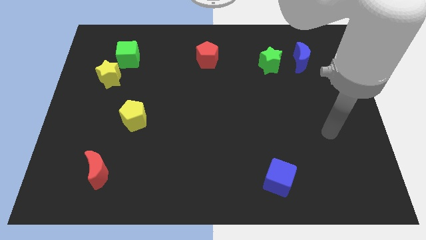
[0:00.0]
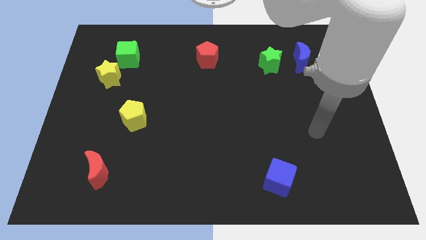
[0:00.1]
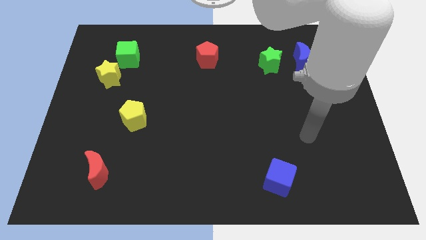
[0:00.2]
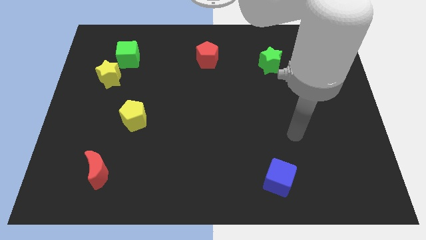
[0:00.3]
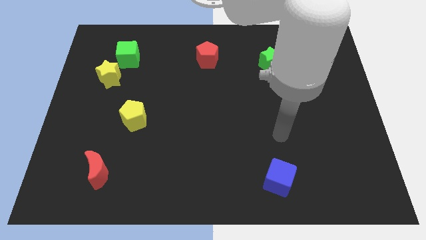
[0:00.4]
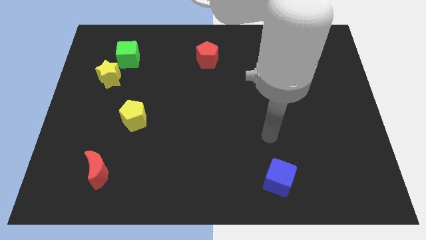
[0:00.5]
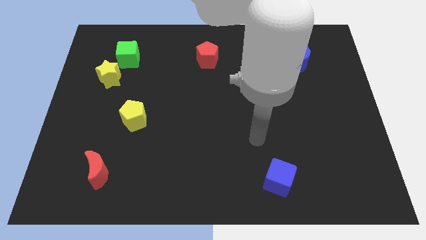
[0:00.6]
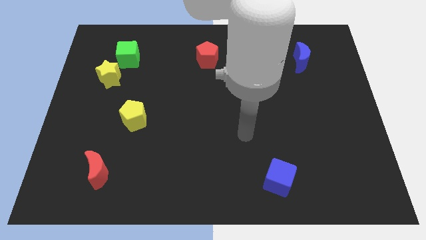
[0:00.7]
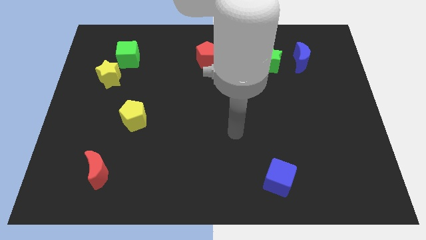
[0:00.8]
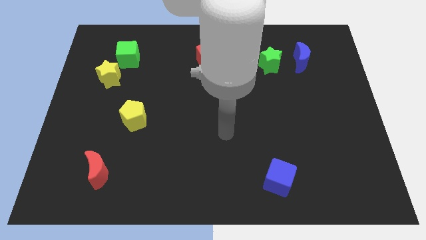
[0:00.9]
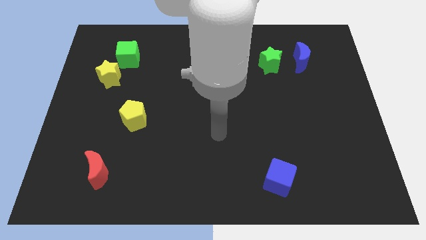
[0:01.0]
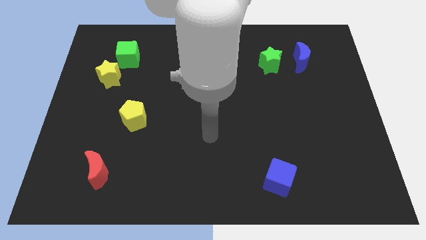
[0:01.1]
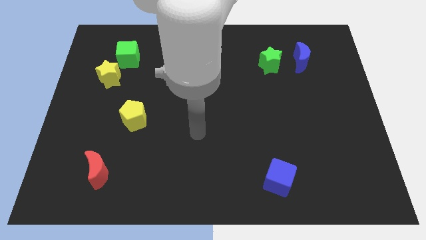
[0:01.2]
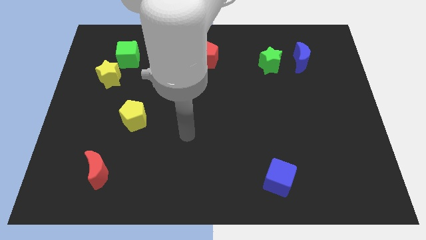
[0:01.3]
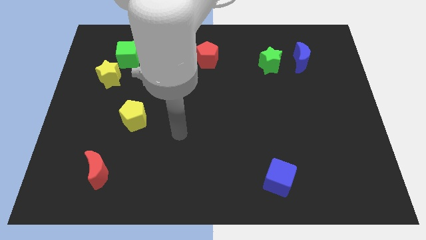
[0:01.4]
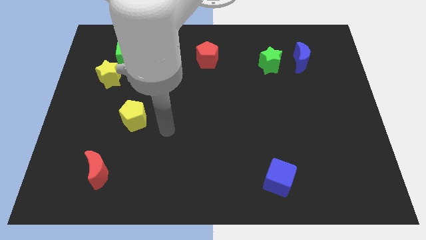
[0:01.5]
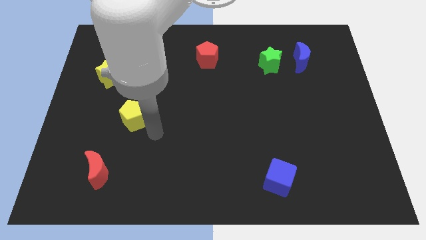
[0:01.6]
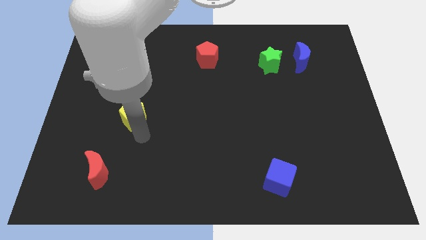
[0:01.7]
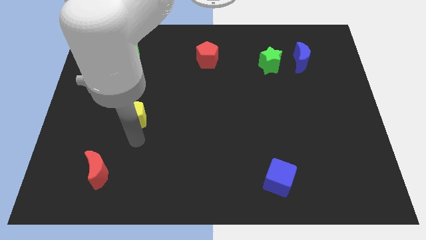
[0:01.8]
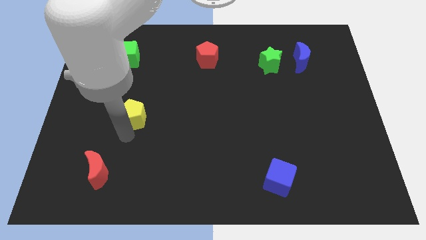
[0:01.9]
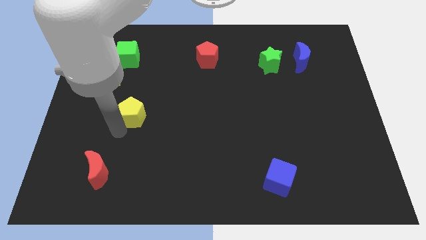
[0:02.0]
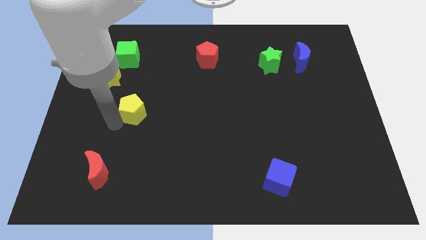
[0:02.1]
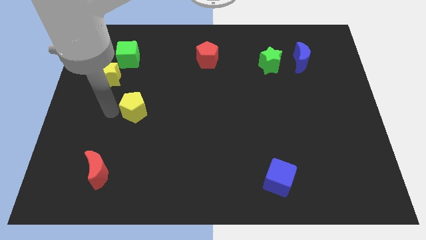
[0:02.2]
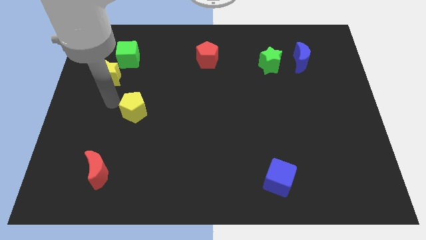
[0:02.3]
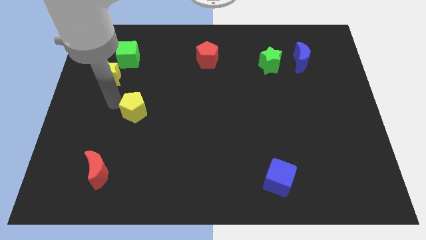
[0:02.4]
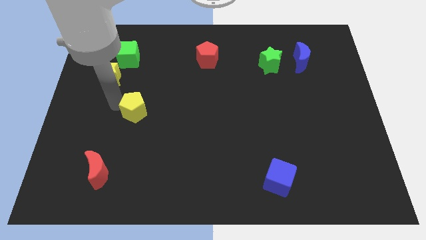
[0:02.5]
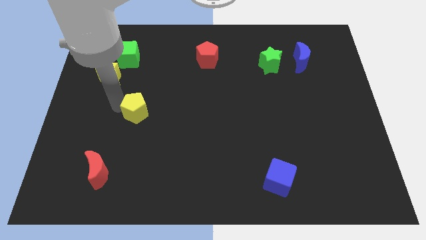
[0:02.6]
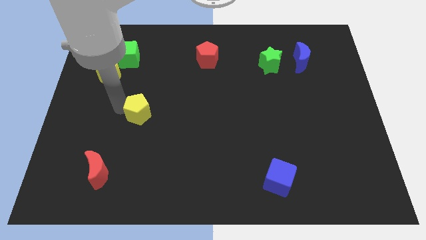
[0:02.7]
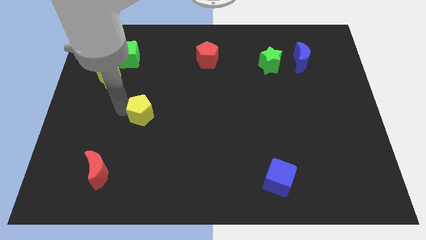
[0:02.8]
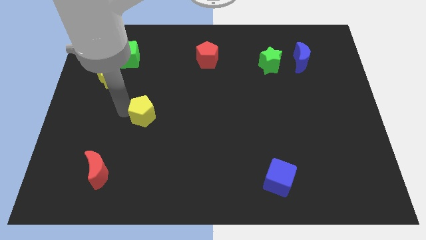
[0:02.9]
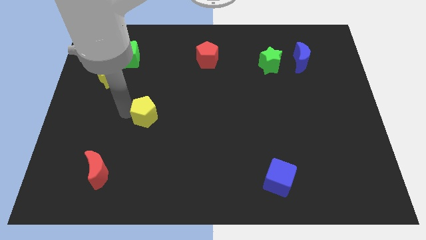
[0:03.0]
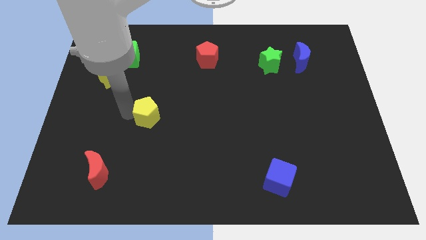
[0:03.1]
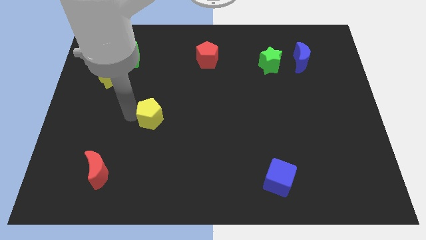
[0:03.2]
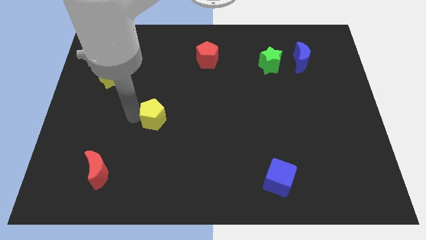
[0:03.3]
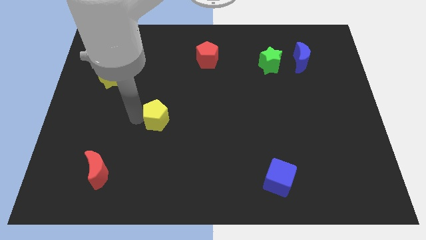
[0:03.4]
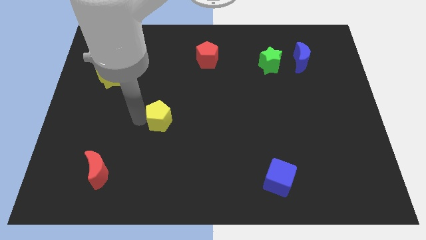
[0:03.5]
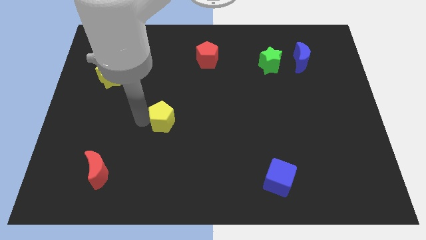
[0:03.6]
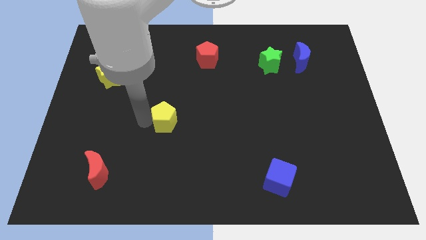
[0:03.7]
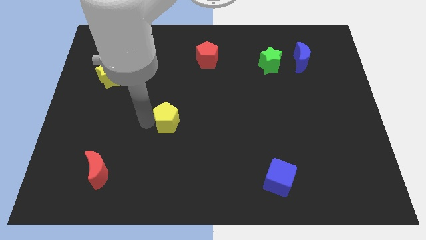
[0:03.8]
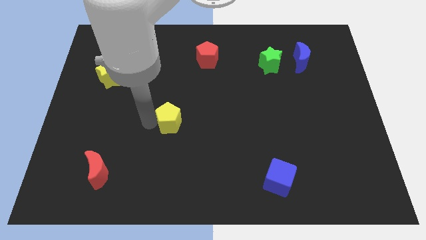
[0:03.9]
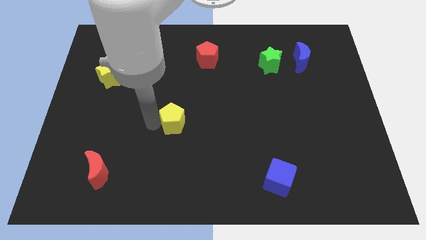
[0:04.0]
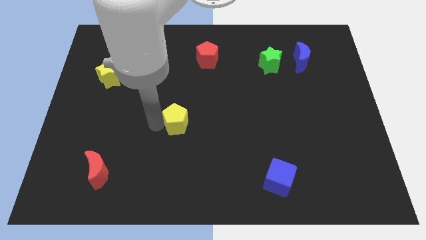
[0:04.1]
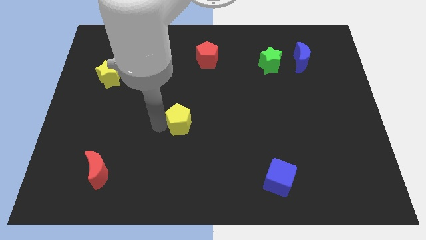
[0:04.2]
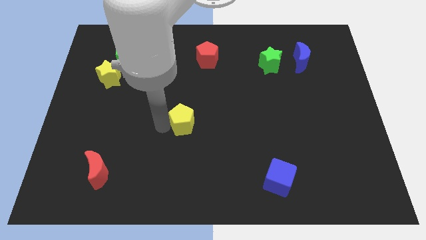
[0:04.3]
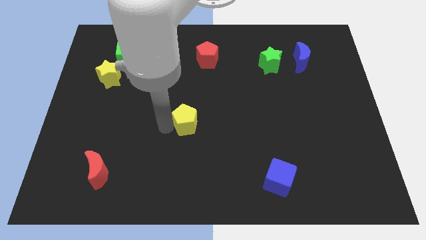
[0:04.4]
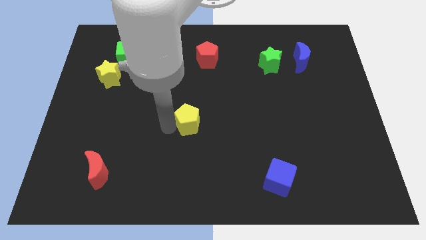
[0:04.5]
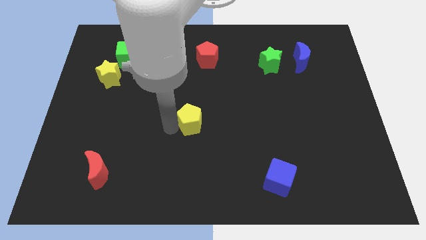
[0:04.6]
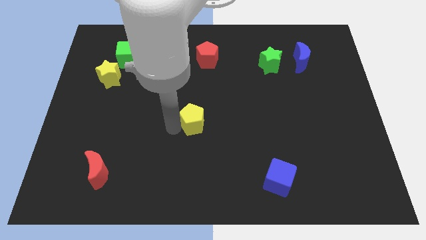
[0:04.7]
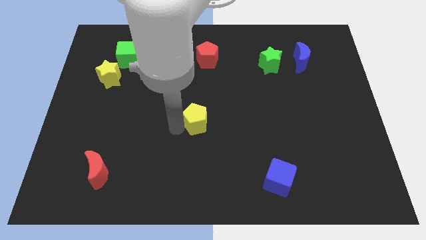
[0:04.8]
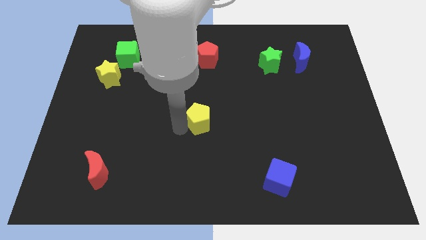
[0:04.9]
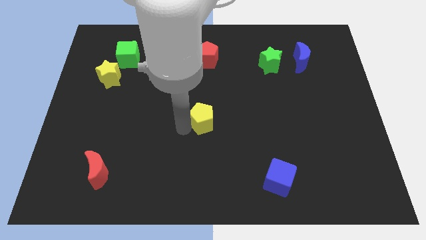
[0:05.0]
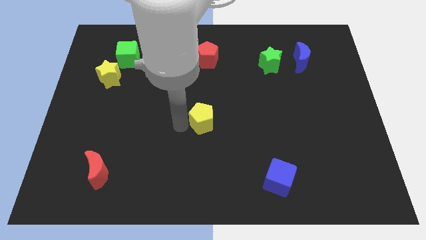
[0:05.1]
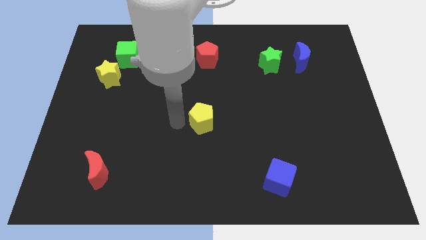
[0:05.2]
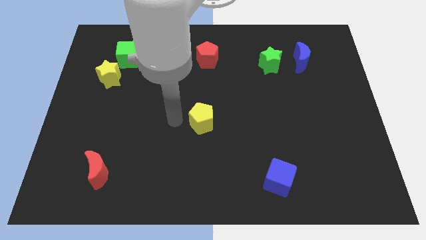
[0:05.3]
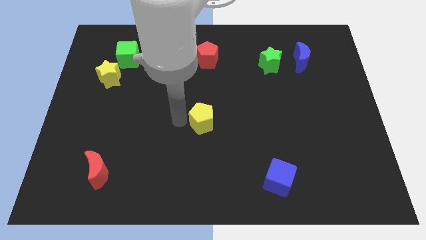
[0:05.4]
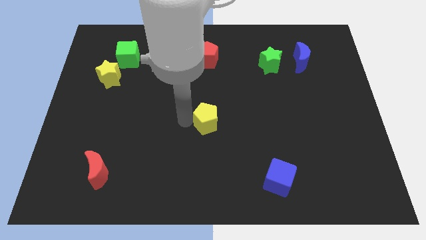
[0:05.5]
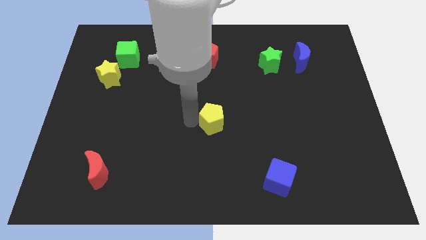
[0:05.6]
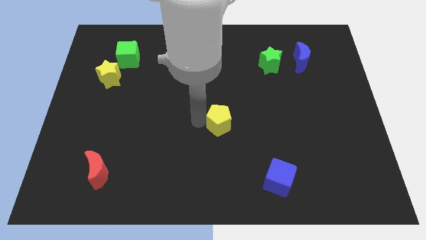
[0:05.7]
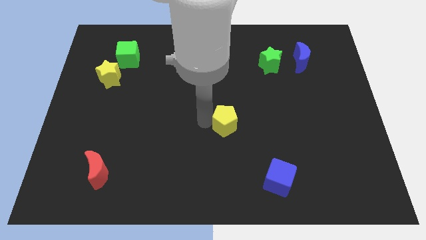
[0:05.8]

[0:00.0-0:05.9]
slide the yellow pentagon right

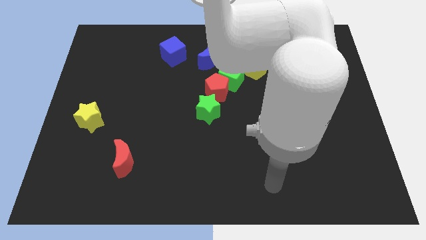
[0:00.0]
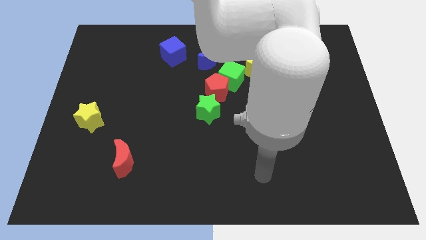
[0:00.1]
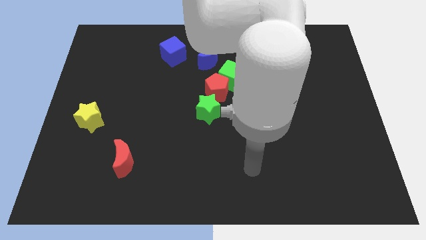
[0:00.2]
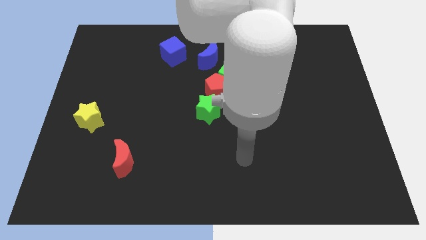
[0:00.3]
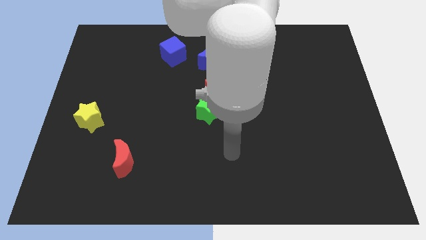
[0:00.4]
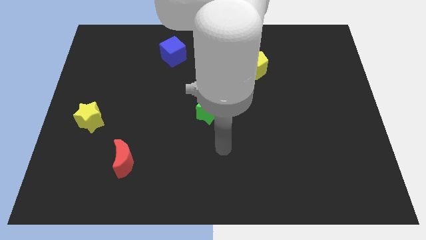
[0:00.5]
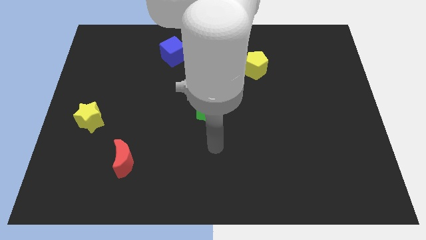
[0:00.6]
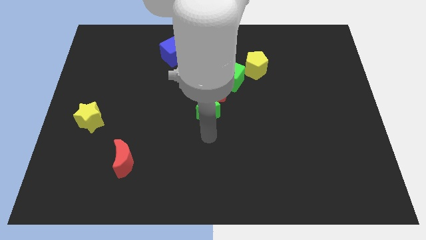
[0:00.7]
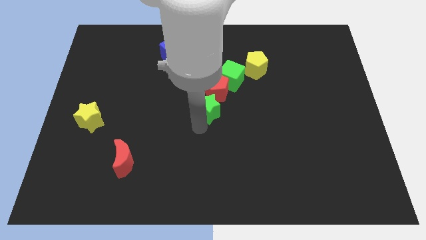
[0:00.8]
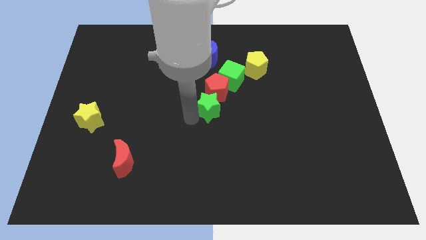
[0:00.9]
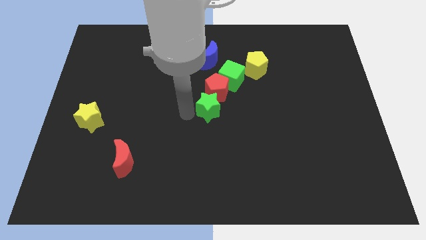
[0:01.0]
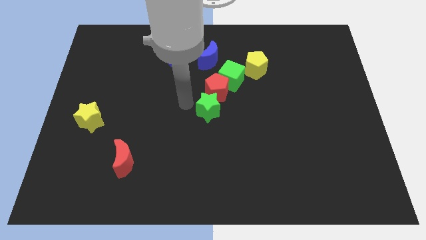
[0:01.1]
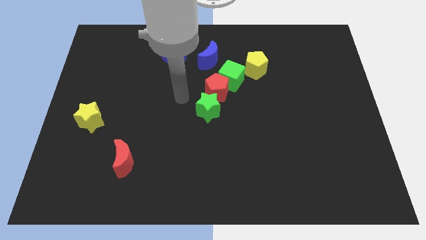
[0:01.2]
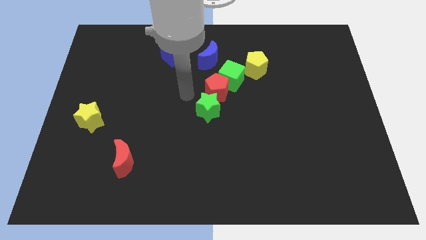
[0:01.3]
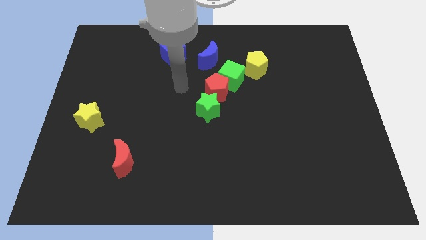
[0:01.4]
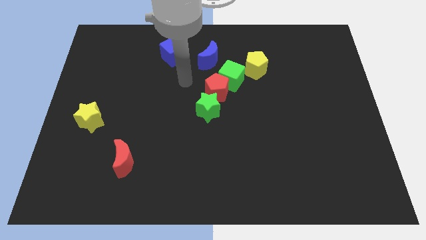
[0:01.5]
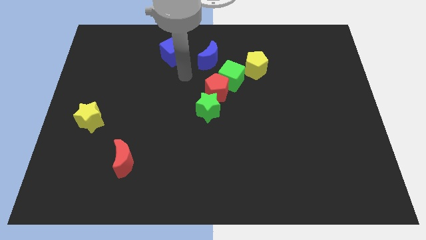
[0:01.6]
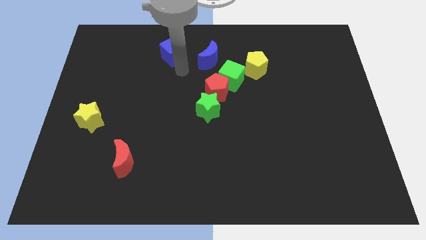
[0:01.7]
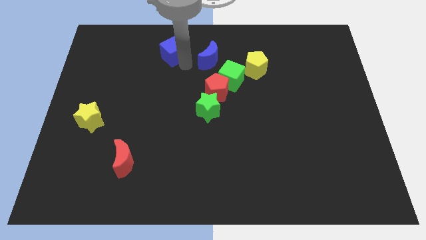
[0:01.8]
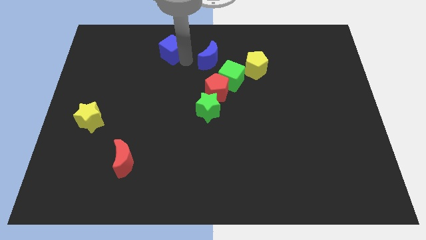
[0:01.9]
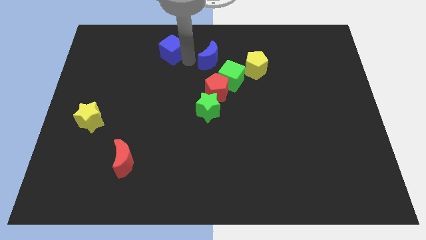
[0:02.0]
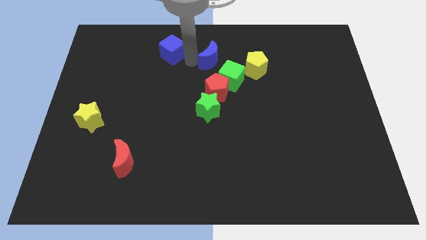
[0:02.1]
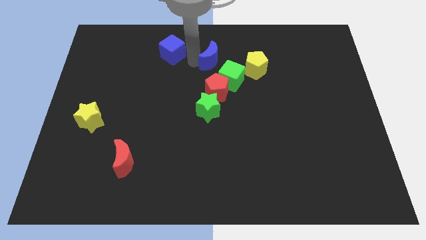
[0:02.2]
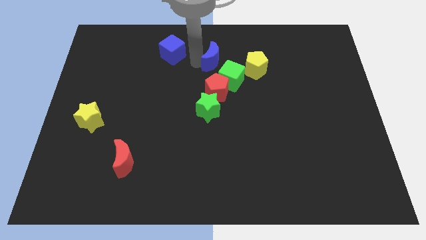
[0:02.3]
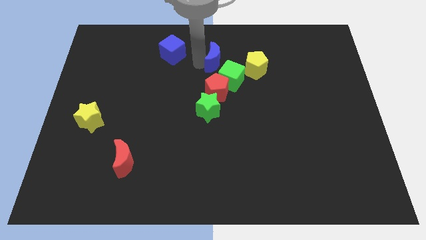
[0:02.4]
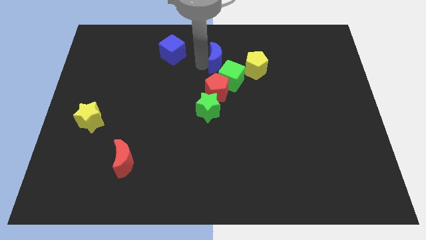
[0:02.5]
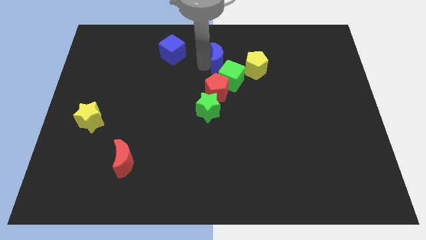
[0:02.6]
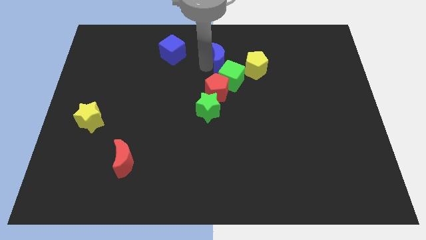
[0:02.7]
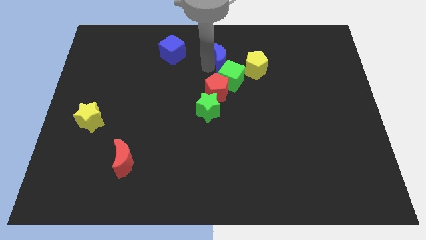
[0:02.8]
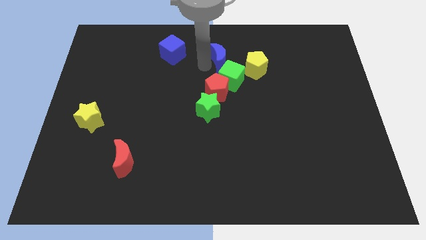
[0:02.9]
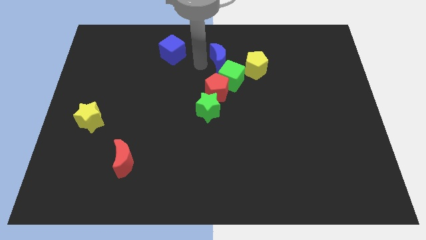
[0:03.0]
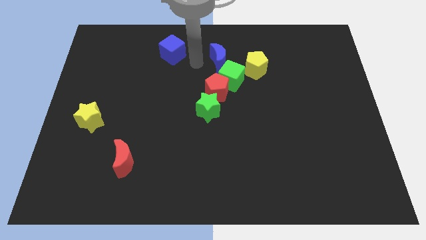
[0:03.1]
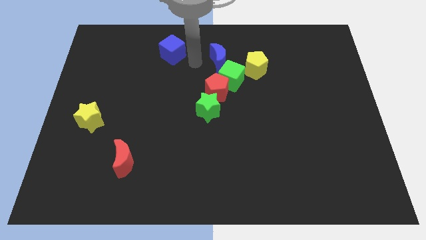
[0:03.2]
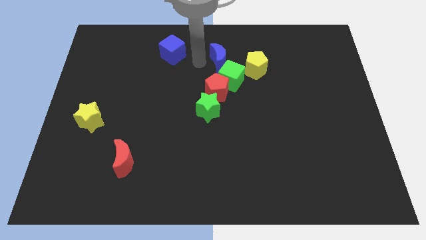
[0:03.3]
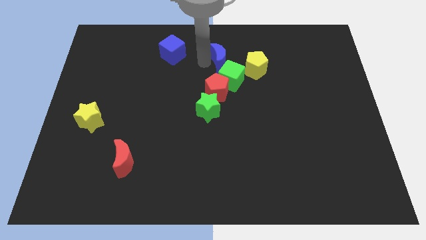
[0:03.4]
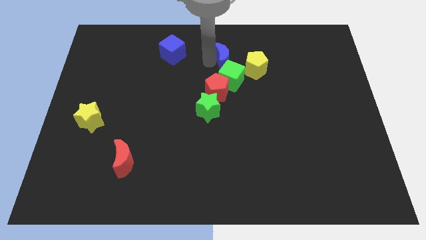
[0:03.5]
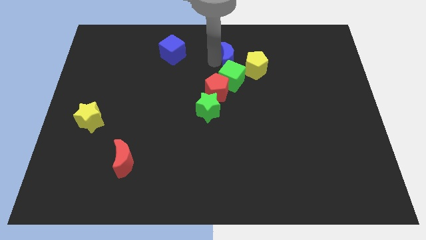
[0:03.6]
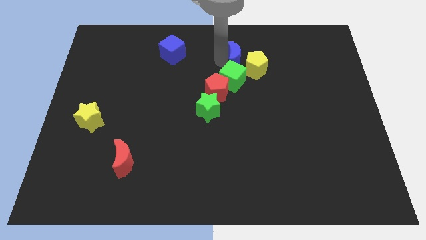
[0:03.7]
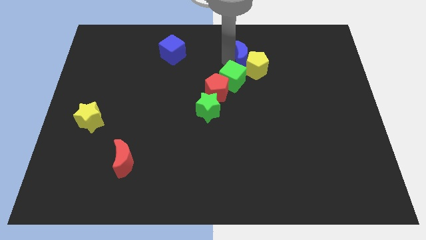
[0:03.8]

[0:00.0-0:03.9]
push the blue moon a little right
